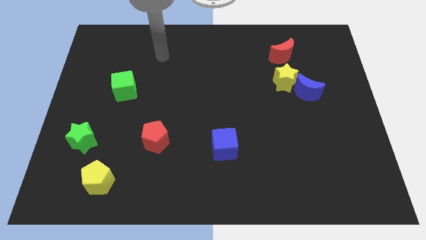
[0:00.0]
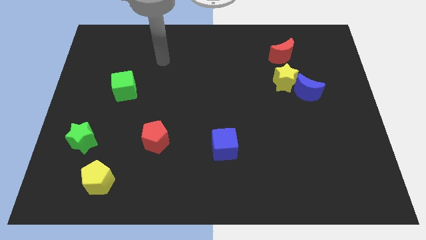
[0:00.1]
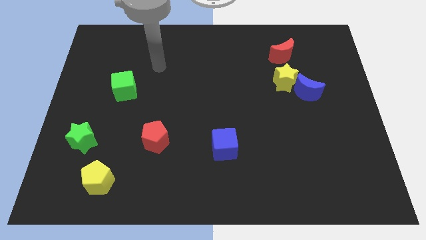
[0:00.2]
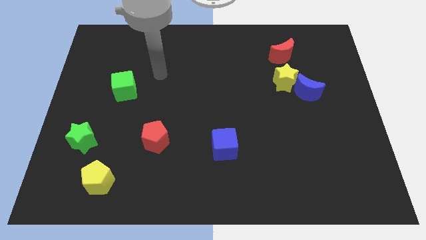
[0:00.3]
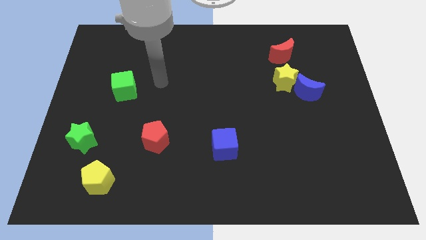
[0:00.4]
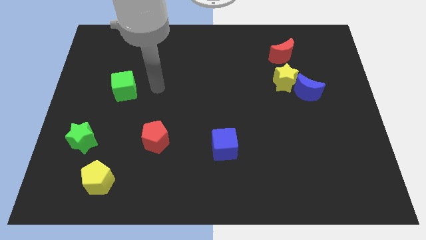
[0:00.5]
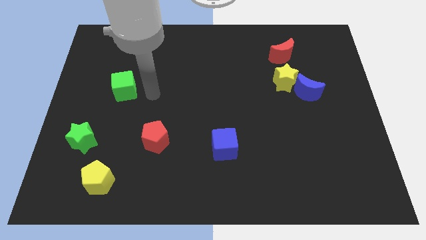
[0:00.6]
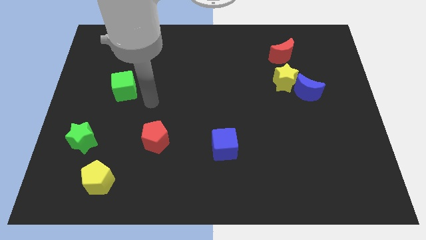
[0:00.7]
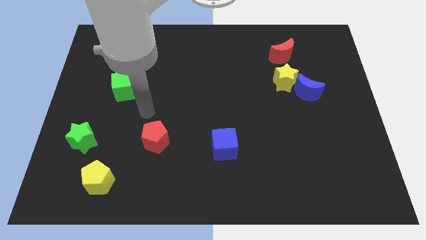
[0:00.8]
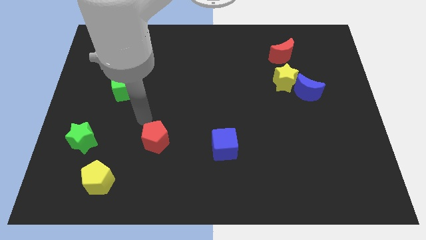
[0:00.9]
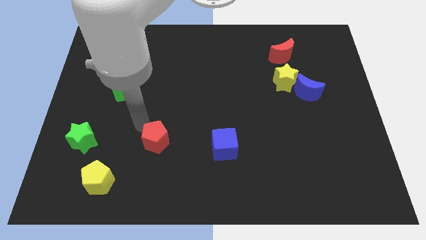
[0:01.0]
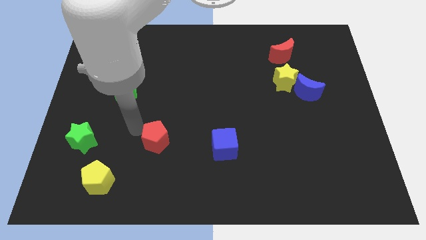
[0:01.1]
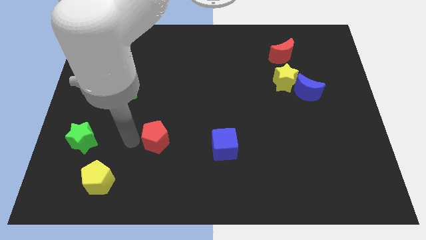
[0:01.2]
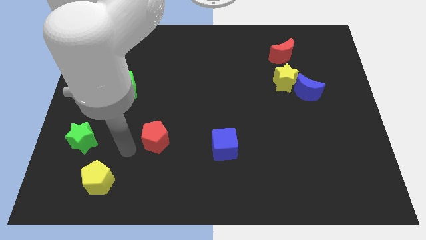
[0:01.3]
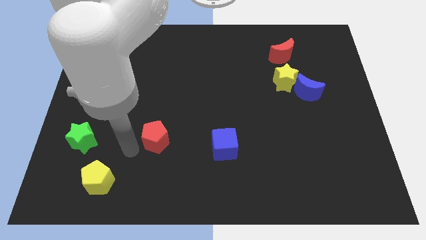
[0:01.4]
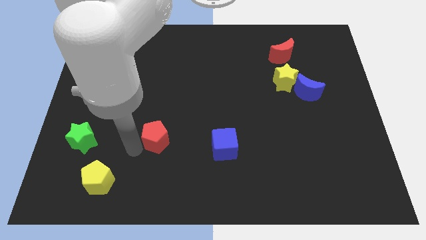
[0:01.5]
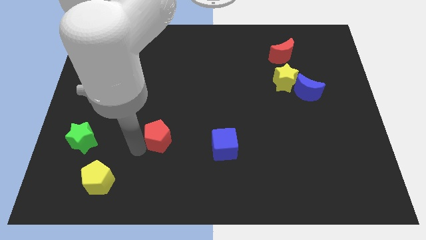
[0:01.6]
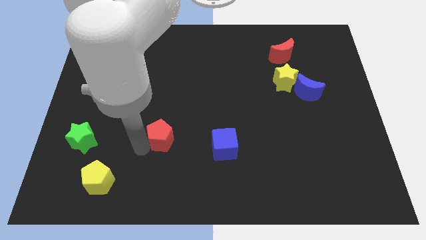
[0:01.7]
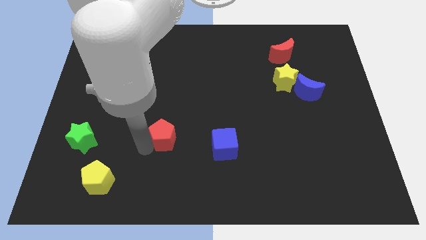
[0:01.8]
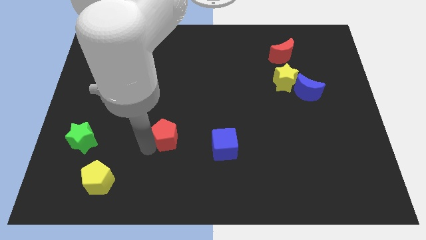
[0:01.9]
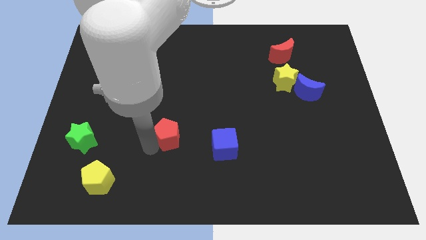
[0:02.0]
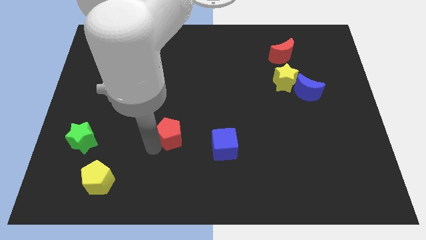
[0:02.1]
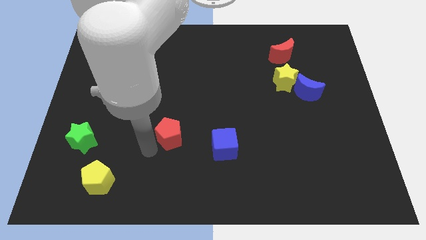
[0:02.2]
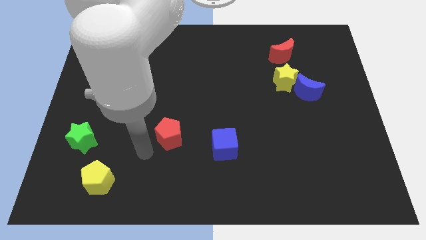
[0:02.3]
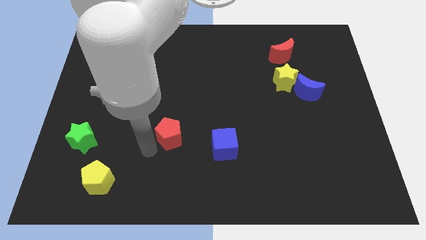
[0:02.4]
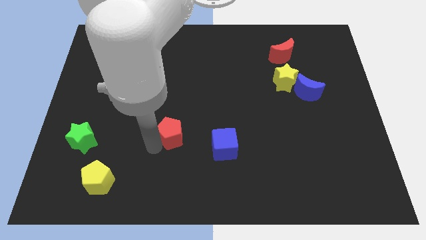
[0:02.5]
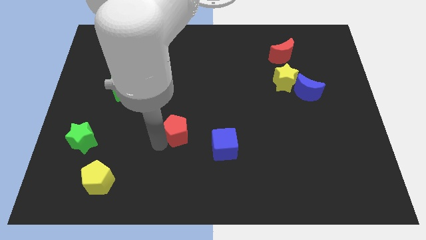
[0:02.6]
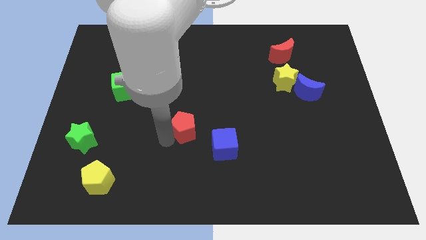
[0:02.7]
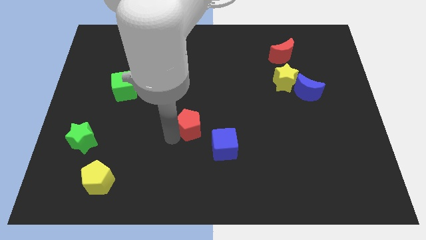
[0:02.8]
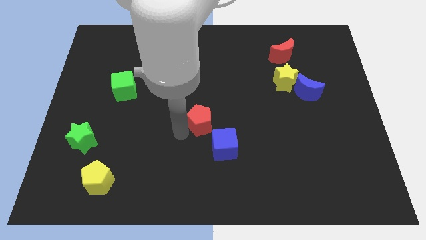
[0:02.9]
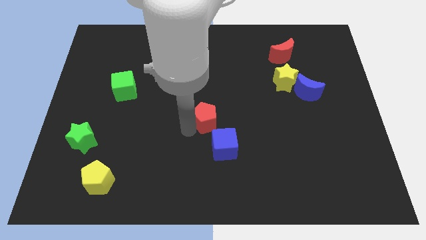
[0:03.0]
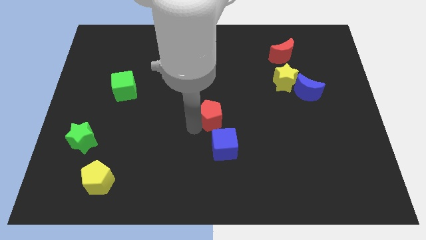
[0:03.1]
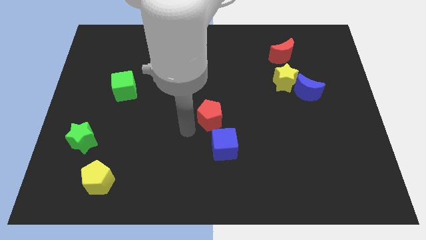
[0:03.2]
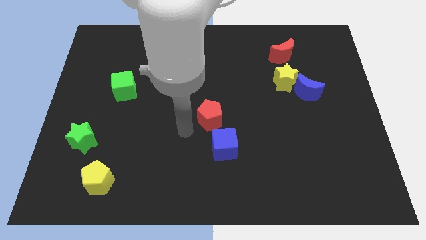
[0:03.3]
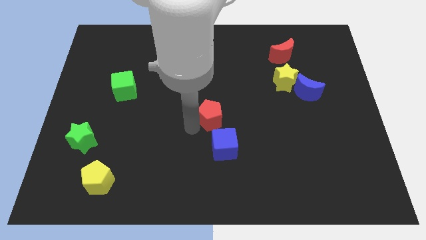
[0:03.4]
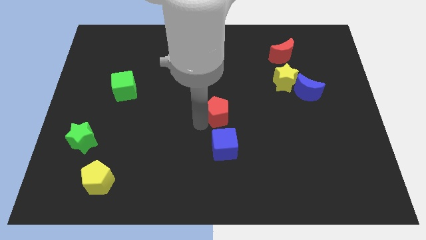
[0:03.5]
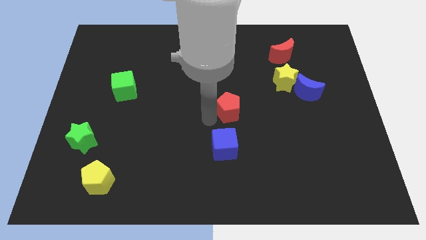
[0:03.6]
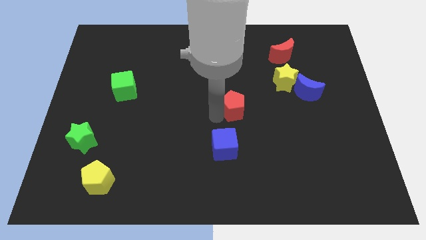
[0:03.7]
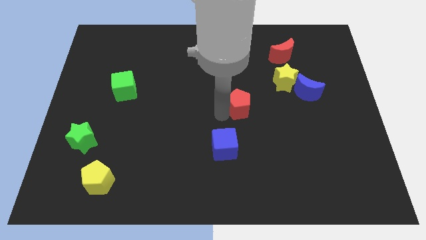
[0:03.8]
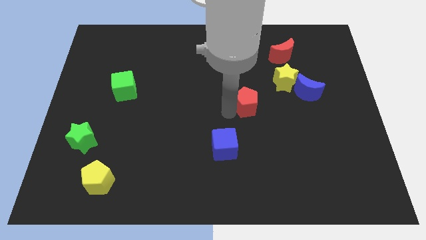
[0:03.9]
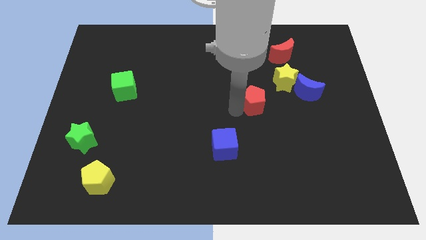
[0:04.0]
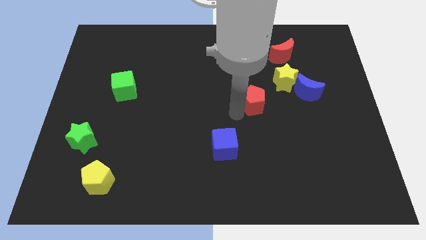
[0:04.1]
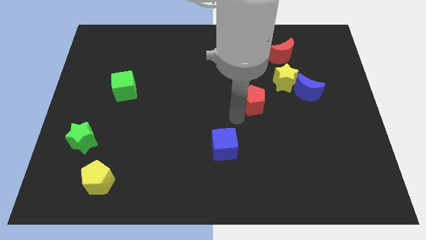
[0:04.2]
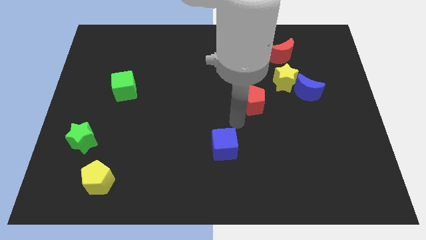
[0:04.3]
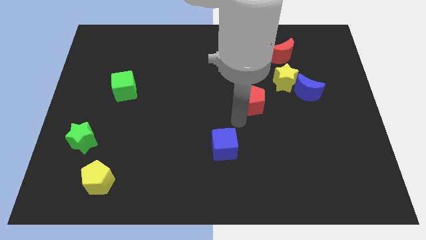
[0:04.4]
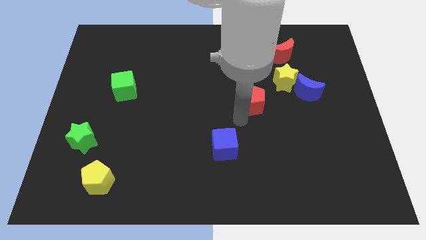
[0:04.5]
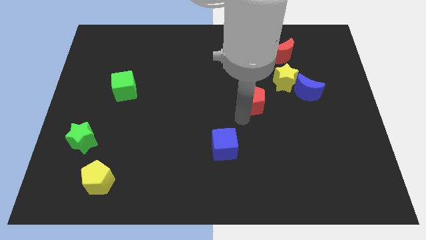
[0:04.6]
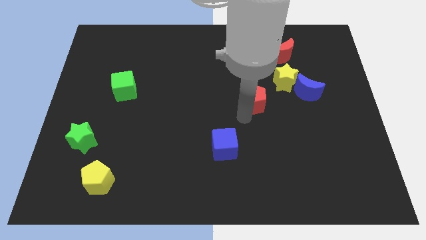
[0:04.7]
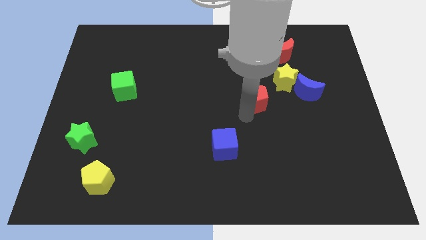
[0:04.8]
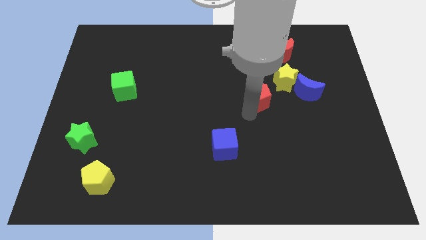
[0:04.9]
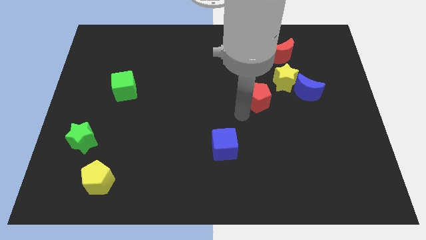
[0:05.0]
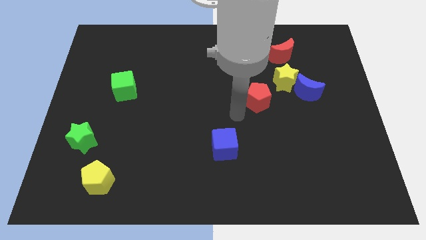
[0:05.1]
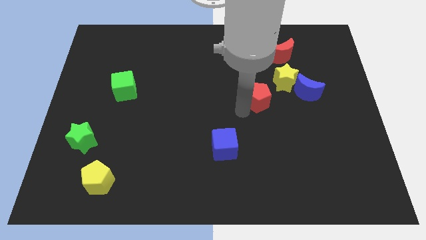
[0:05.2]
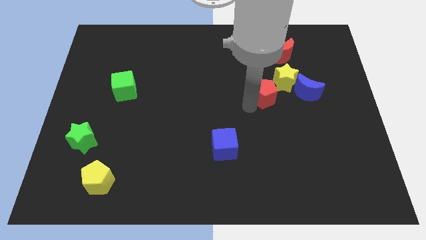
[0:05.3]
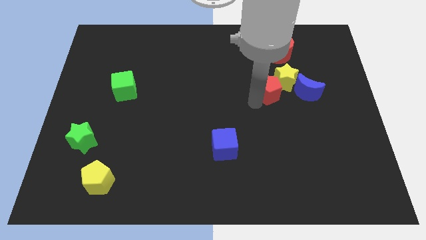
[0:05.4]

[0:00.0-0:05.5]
put the red pentagon to the yellow star

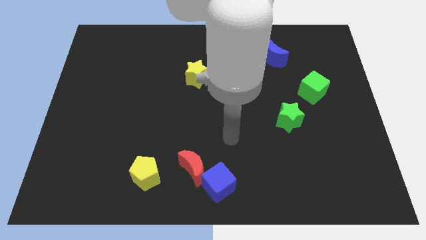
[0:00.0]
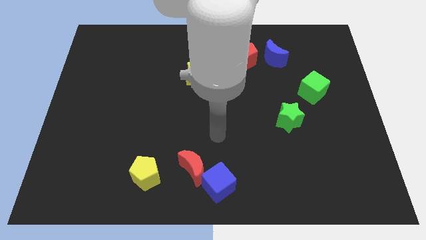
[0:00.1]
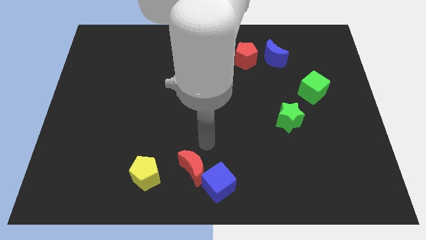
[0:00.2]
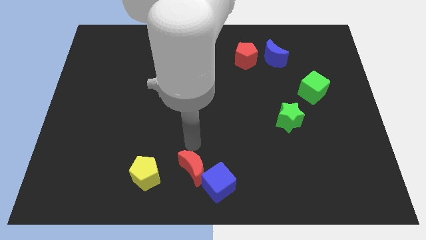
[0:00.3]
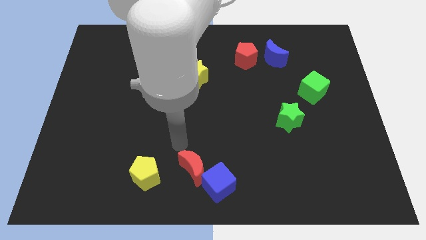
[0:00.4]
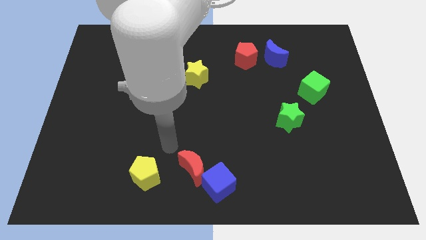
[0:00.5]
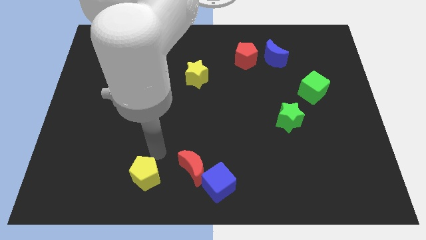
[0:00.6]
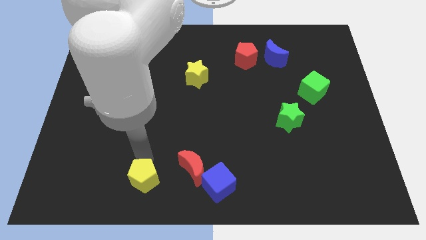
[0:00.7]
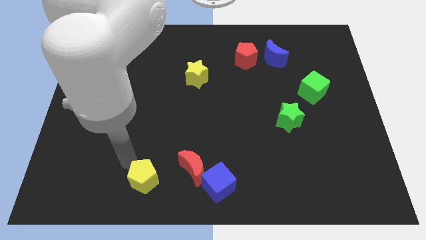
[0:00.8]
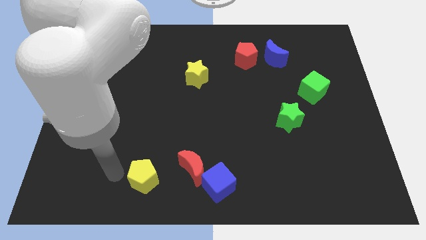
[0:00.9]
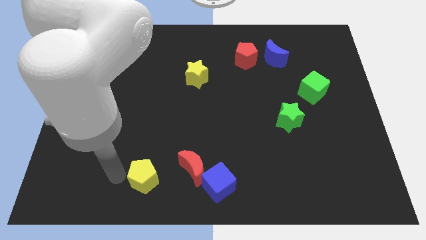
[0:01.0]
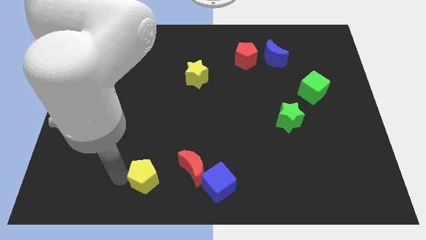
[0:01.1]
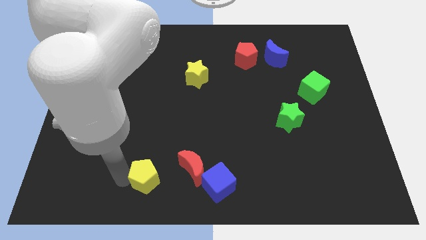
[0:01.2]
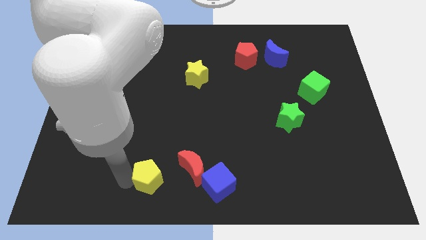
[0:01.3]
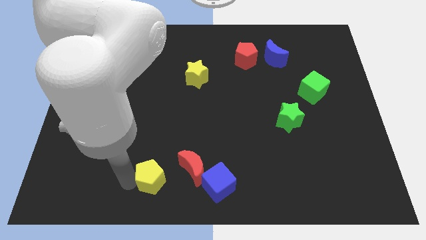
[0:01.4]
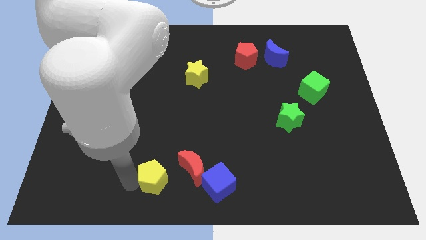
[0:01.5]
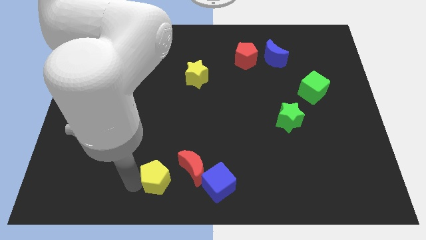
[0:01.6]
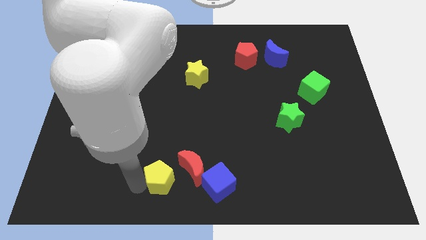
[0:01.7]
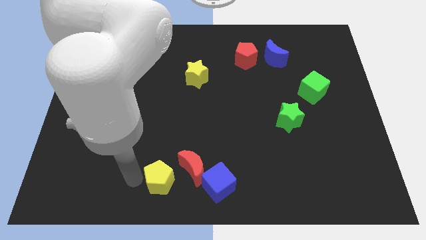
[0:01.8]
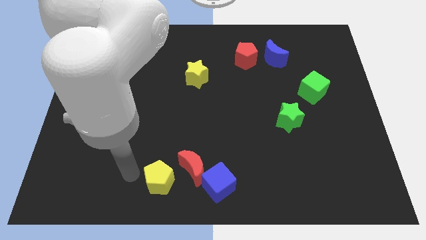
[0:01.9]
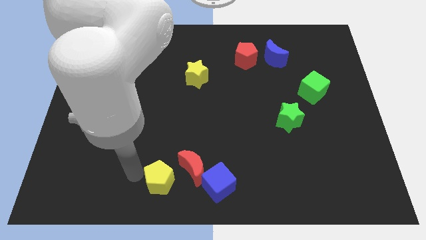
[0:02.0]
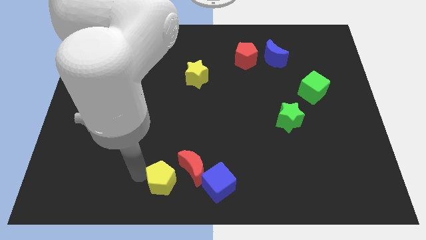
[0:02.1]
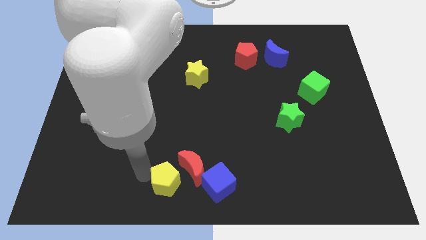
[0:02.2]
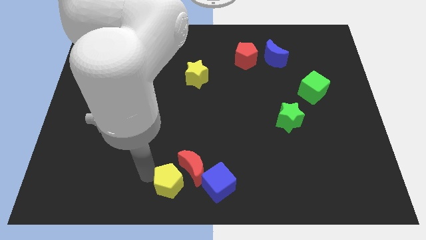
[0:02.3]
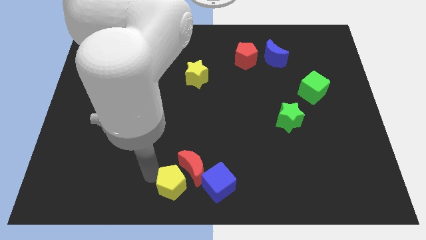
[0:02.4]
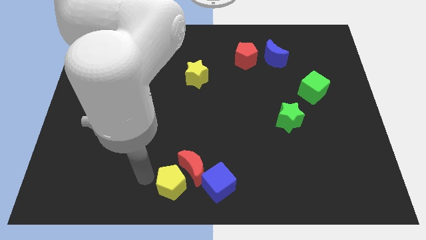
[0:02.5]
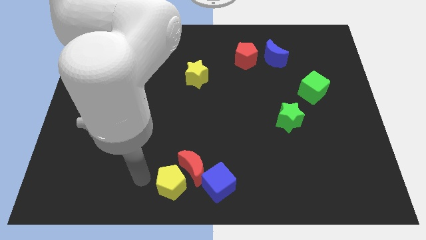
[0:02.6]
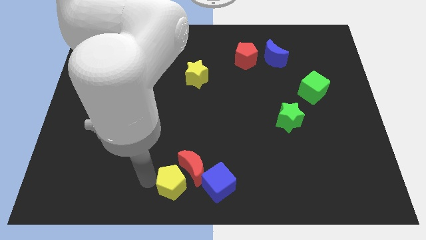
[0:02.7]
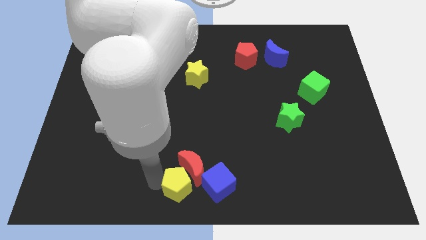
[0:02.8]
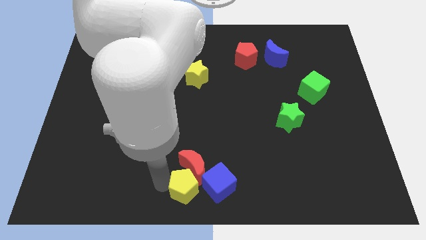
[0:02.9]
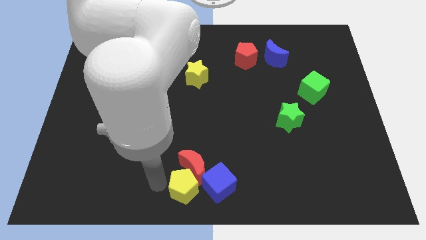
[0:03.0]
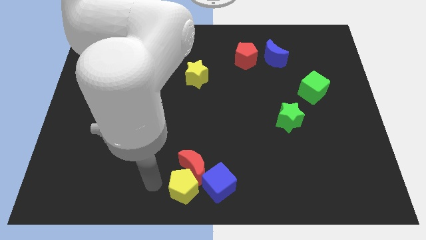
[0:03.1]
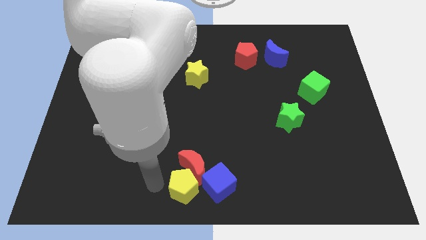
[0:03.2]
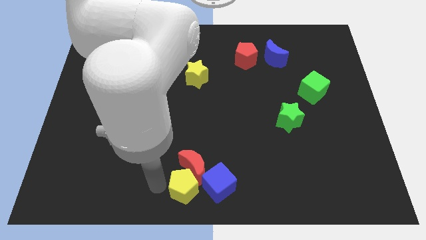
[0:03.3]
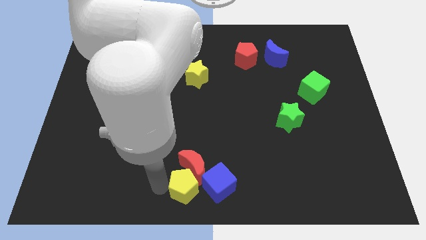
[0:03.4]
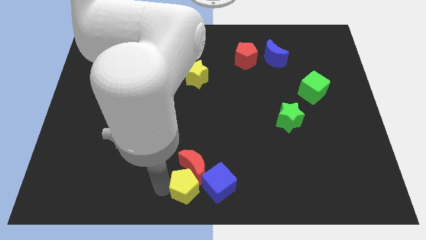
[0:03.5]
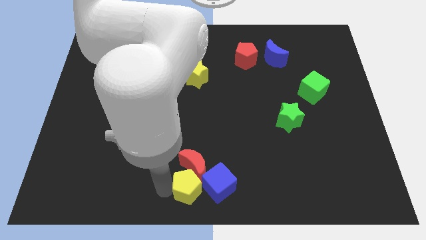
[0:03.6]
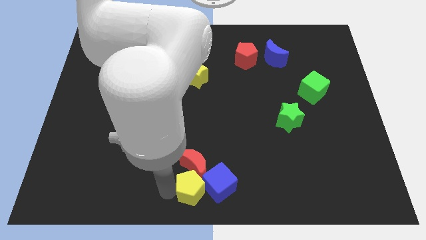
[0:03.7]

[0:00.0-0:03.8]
push the yellow pentagon to the blue cube
